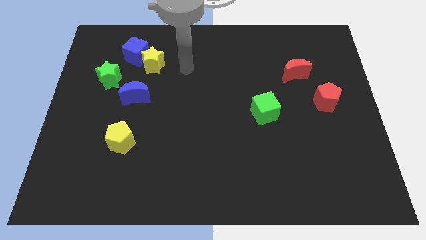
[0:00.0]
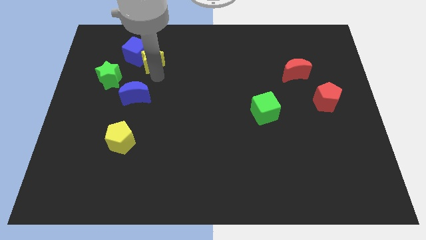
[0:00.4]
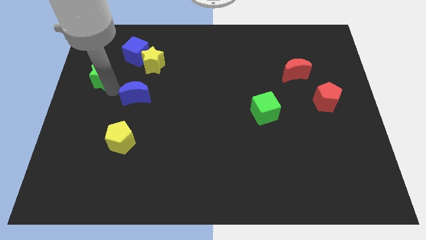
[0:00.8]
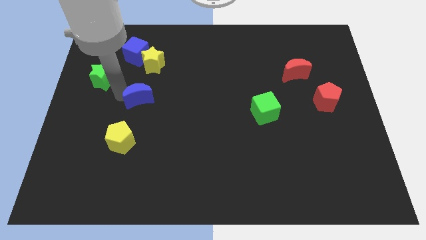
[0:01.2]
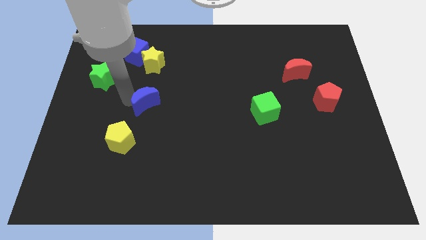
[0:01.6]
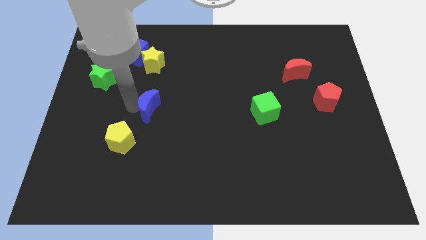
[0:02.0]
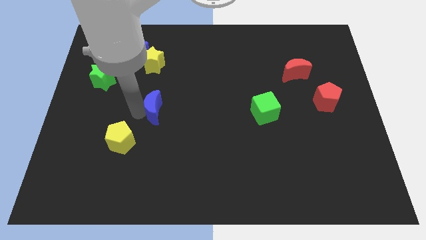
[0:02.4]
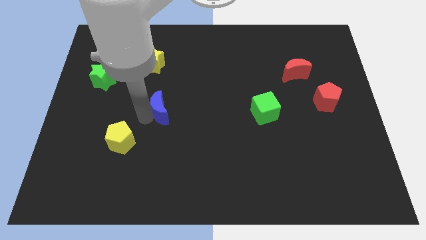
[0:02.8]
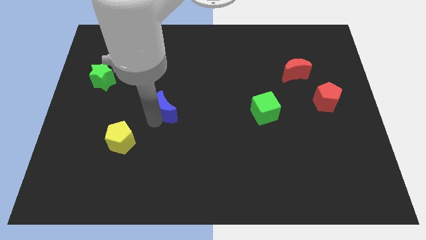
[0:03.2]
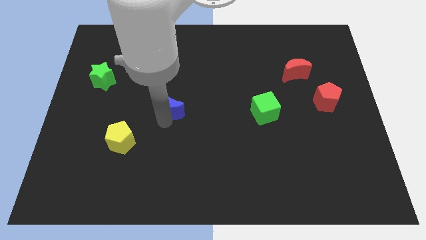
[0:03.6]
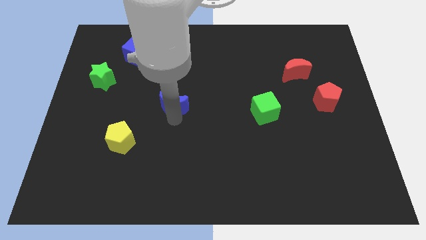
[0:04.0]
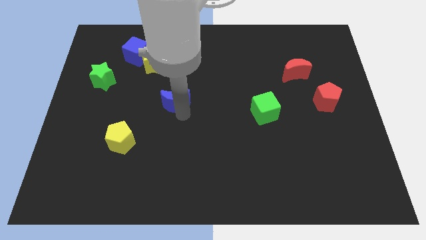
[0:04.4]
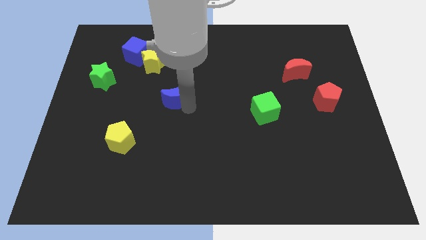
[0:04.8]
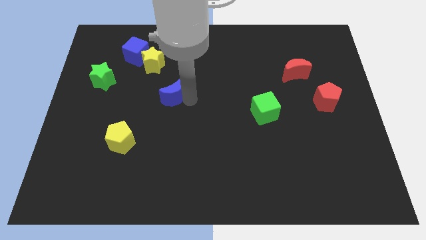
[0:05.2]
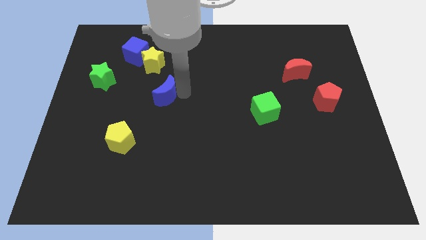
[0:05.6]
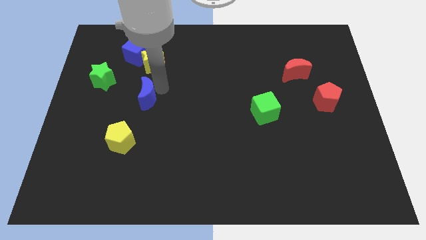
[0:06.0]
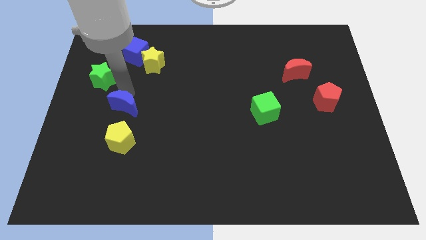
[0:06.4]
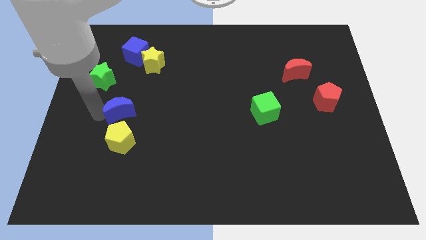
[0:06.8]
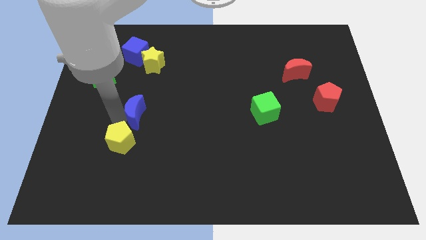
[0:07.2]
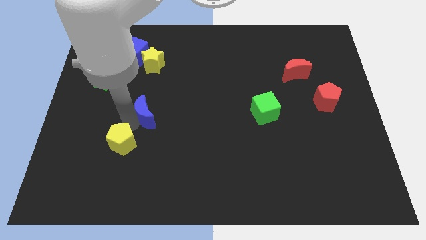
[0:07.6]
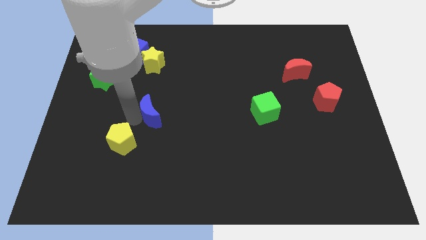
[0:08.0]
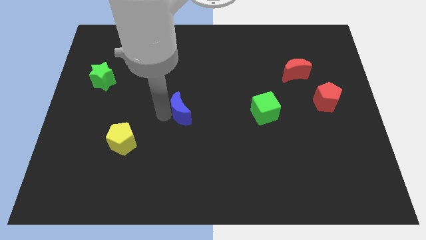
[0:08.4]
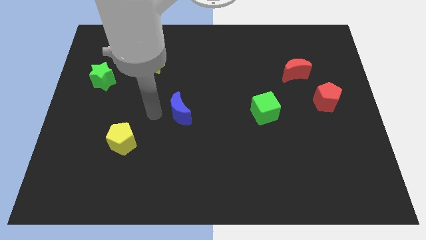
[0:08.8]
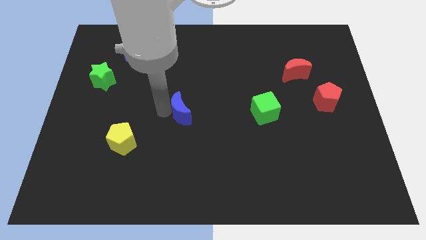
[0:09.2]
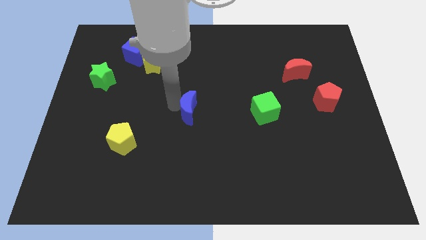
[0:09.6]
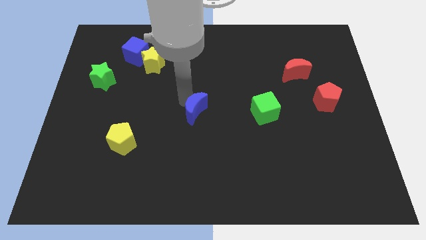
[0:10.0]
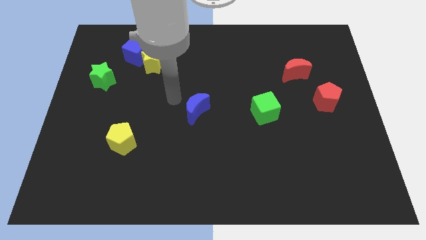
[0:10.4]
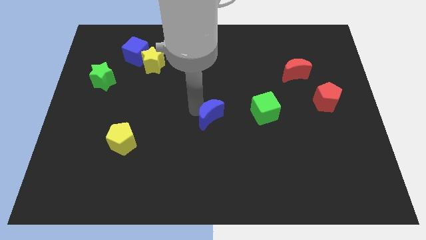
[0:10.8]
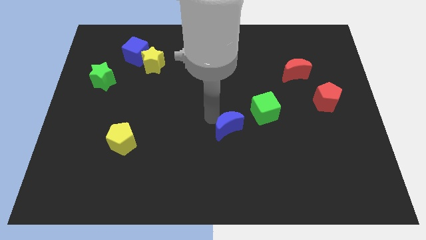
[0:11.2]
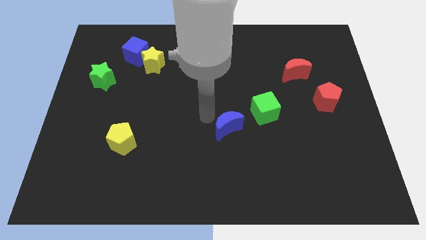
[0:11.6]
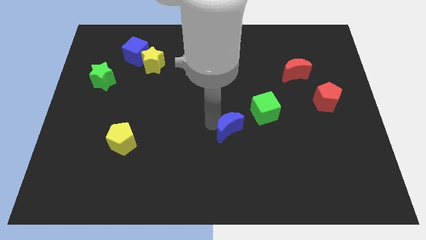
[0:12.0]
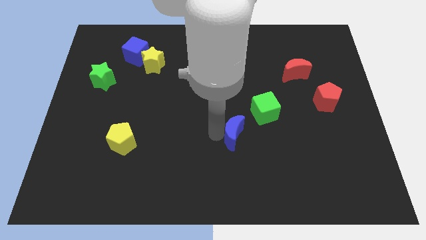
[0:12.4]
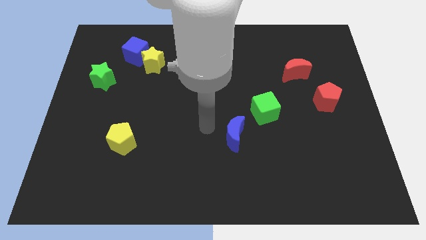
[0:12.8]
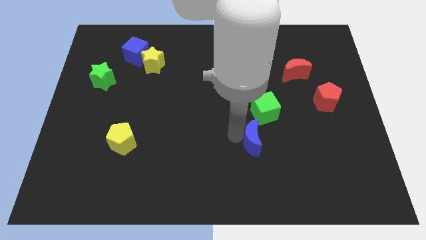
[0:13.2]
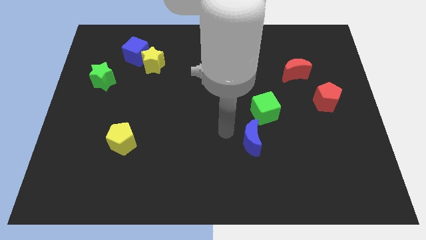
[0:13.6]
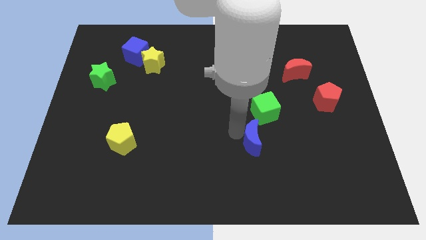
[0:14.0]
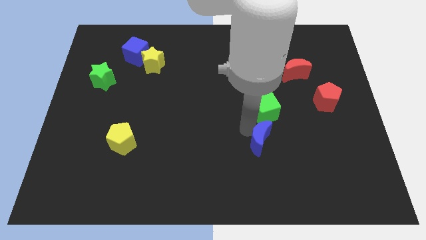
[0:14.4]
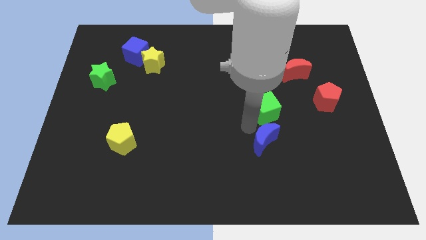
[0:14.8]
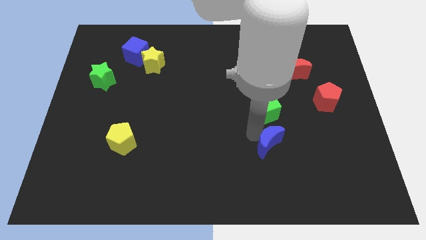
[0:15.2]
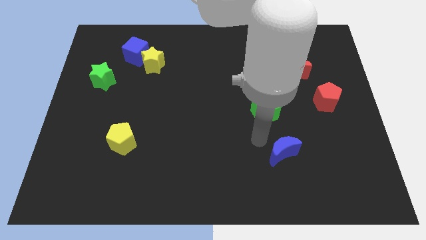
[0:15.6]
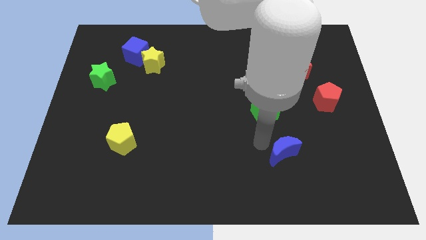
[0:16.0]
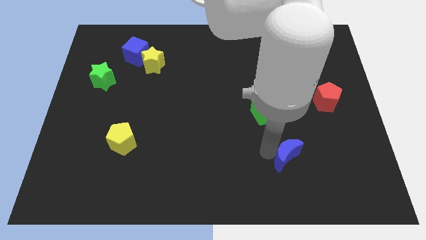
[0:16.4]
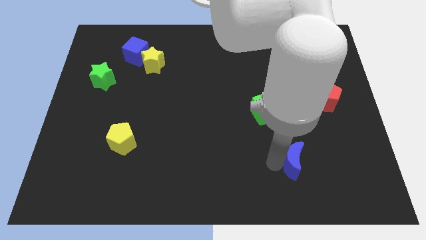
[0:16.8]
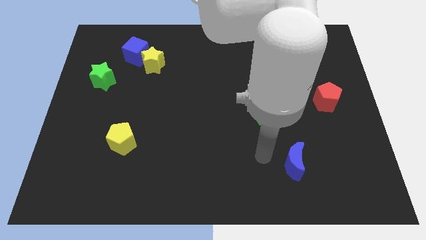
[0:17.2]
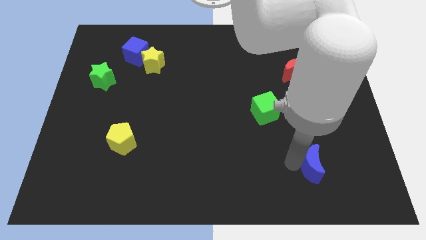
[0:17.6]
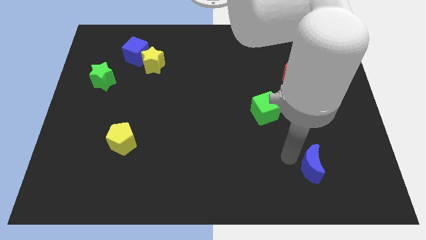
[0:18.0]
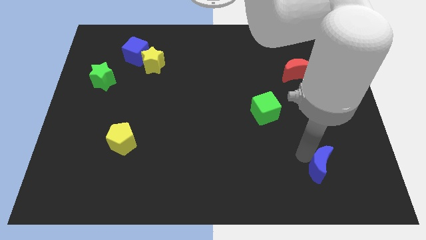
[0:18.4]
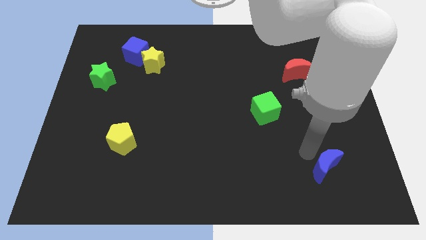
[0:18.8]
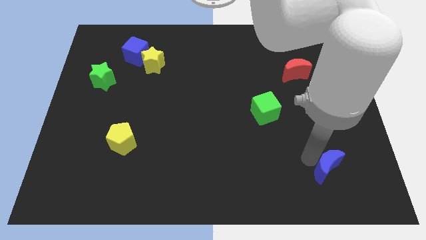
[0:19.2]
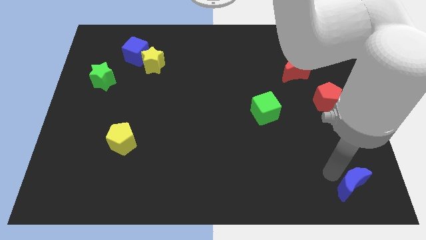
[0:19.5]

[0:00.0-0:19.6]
slide the blue moon to the bottom right
